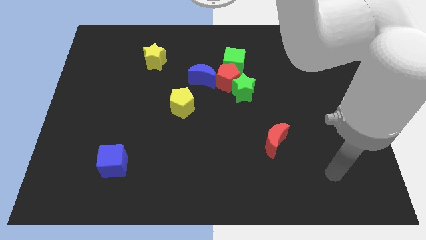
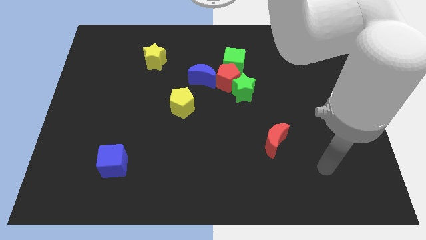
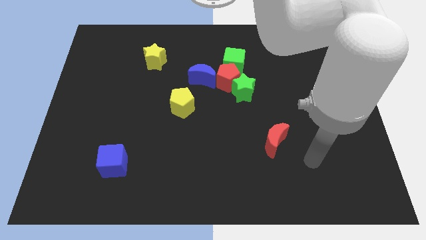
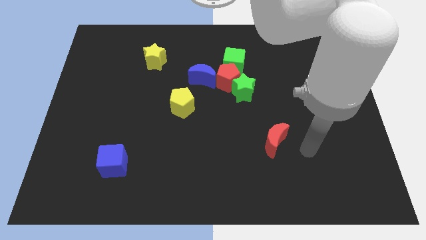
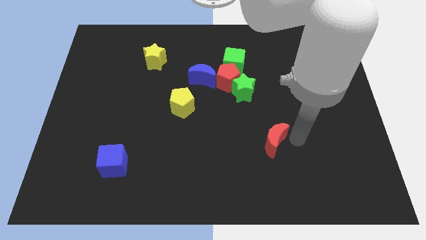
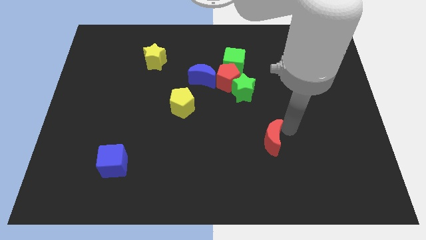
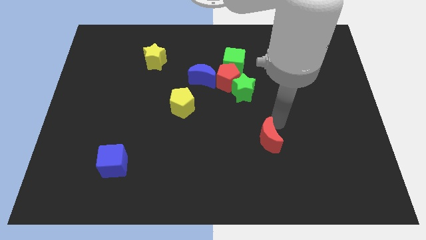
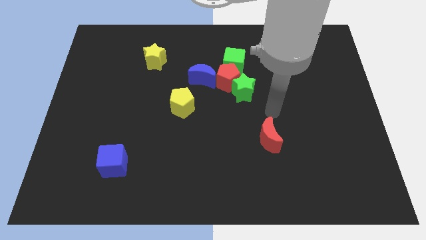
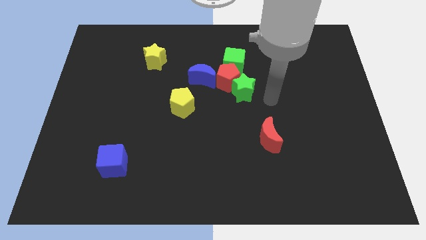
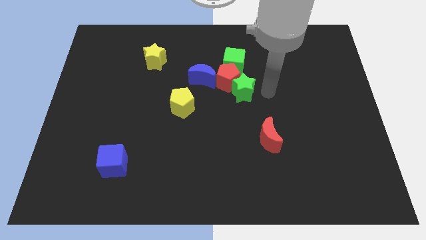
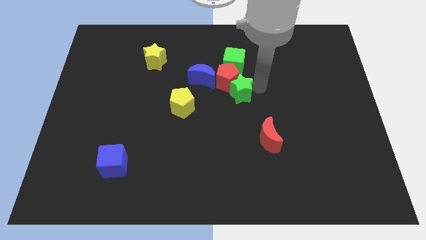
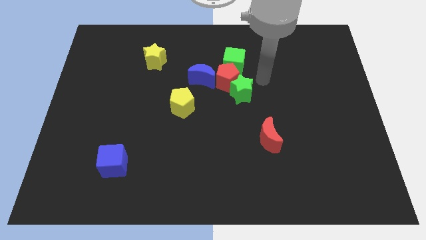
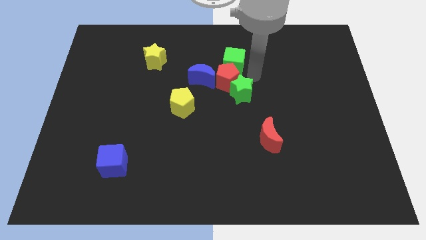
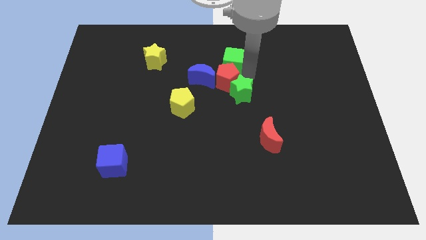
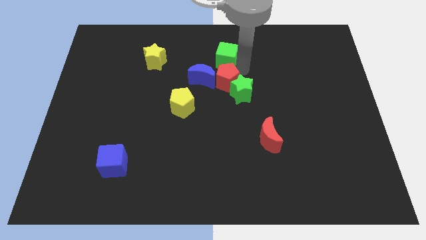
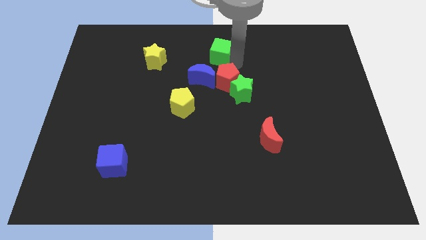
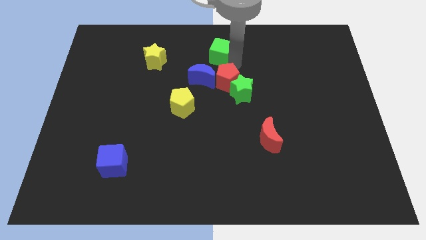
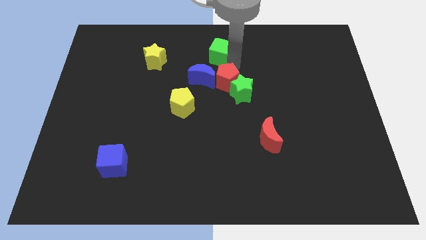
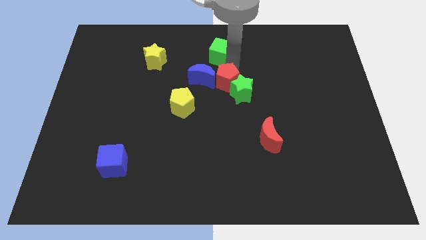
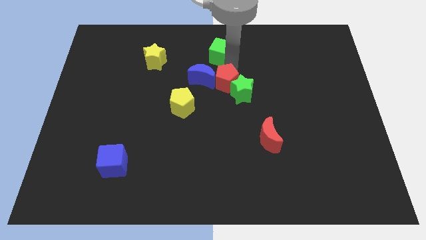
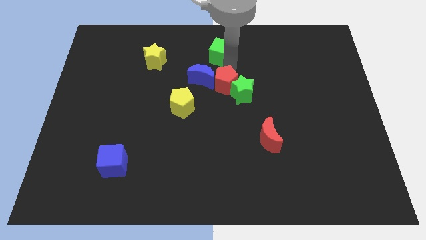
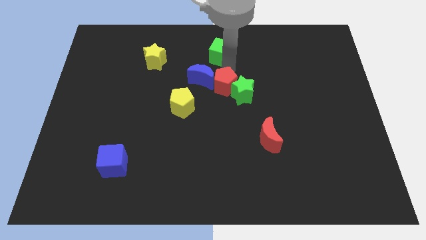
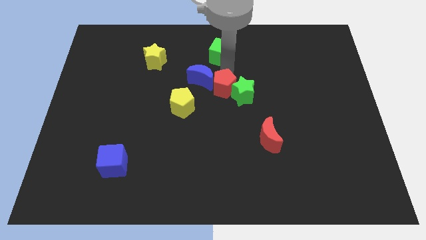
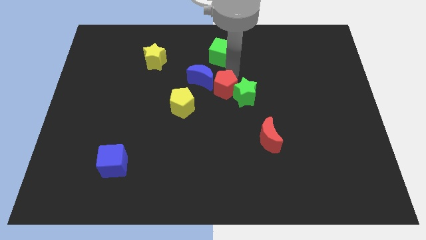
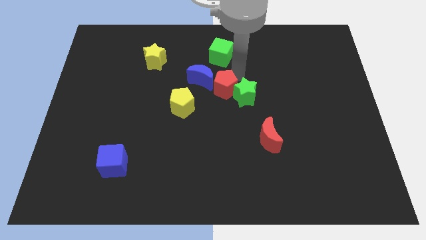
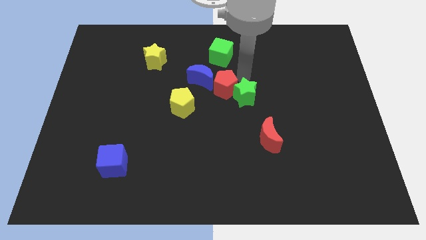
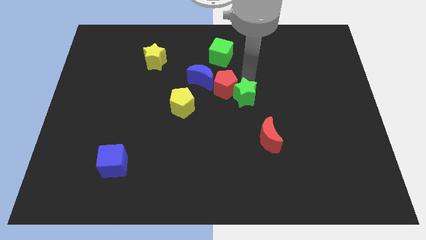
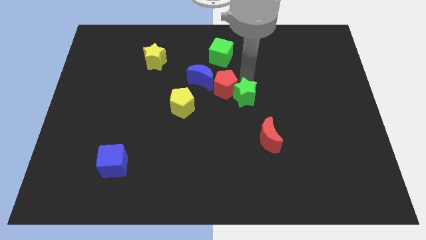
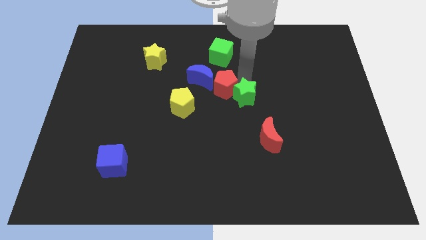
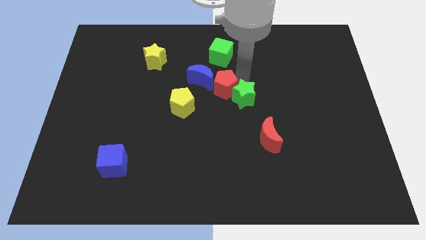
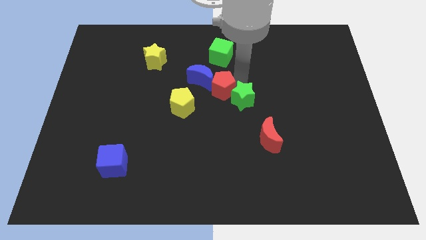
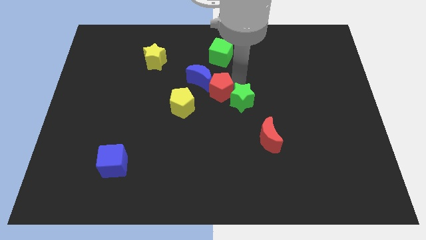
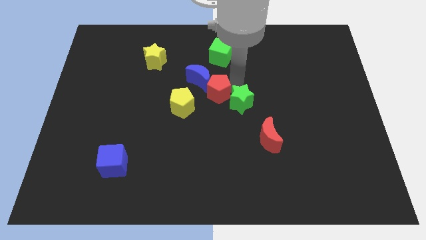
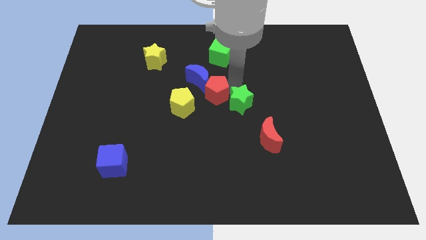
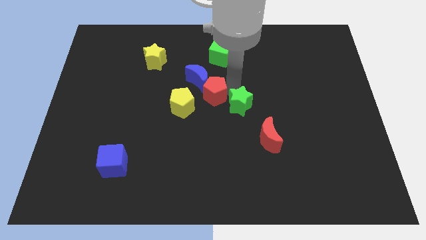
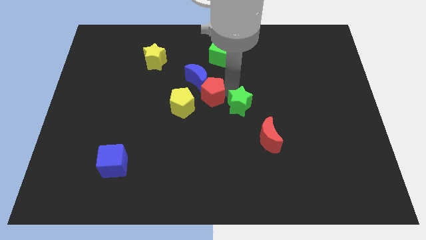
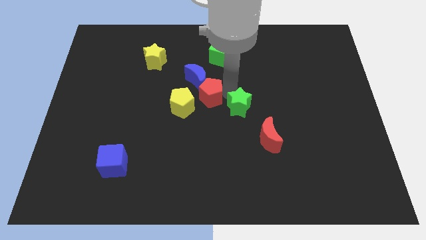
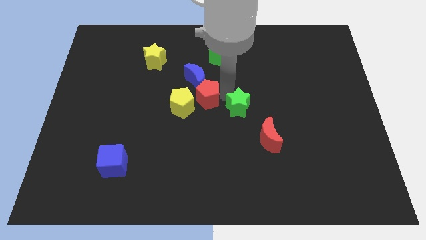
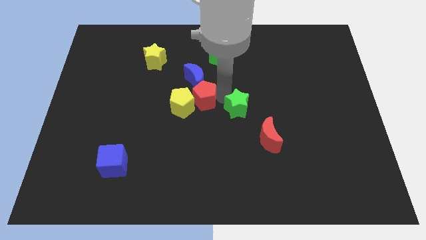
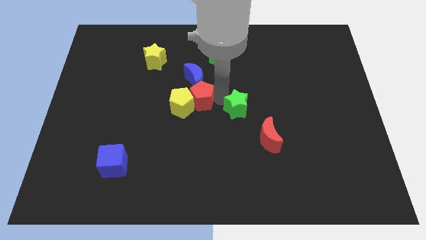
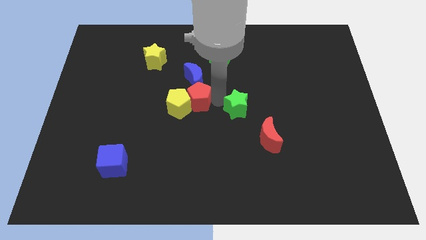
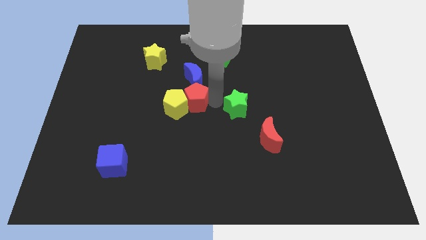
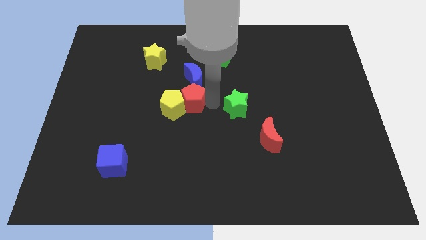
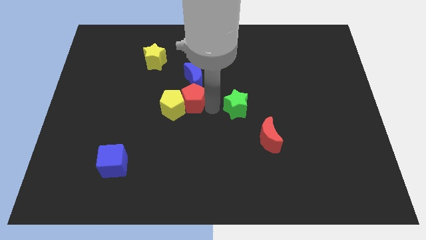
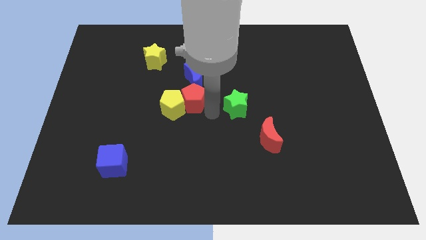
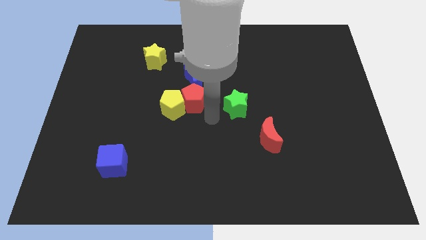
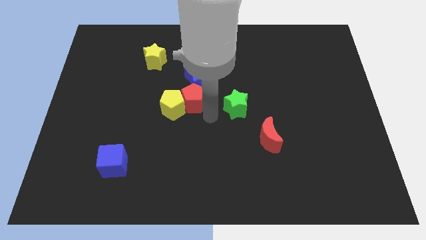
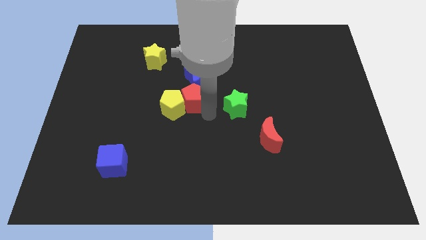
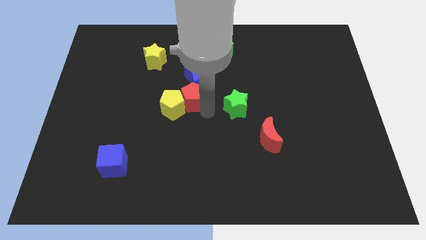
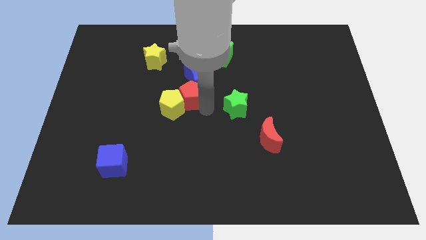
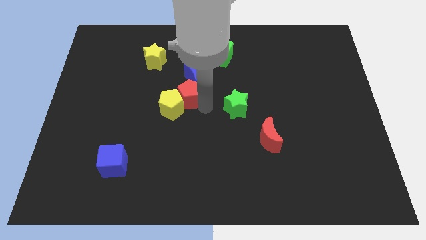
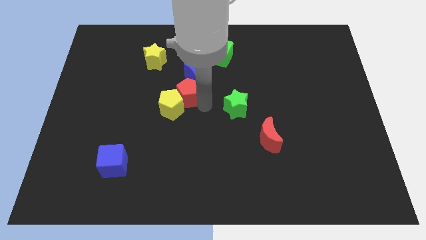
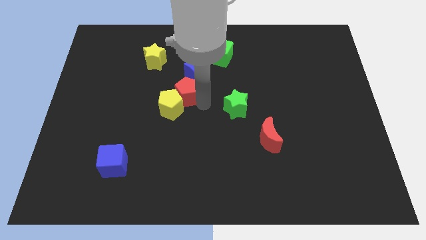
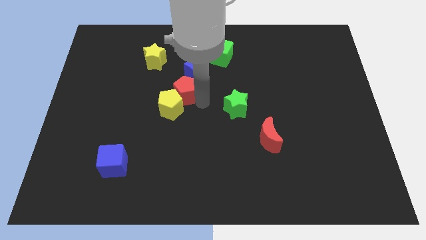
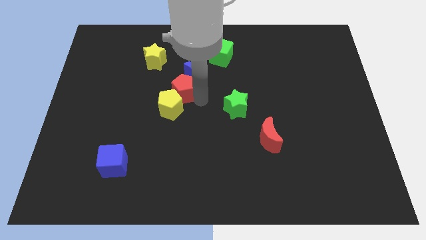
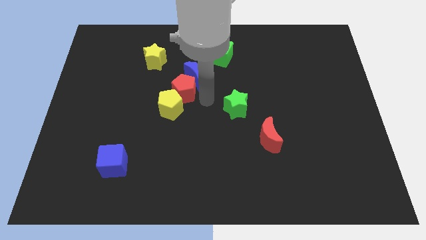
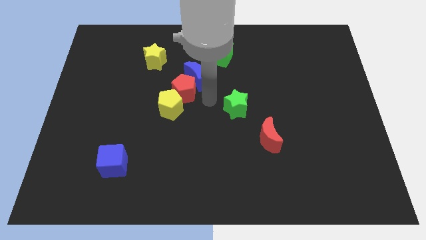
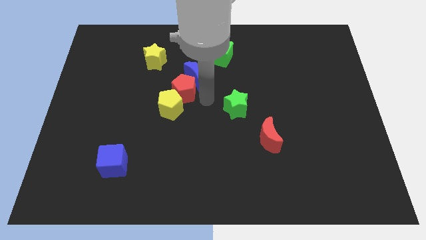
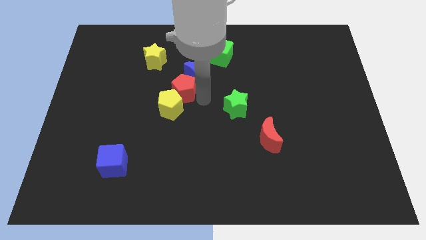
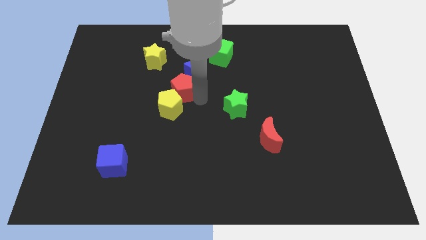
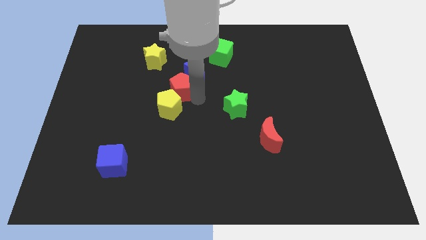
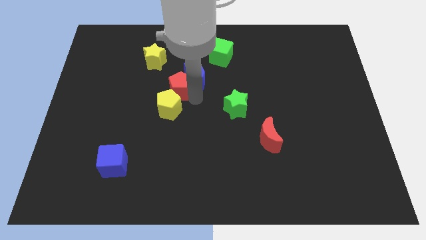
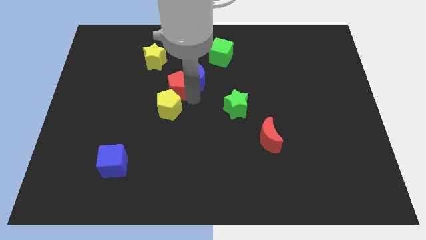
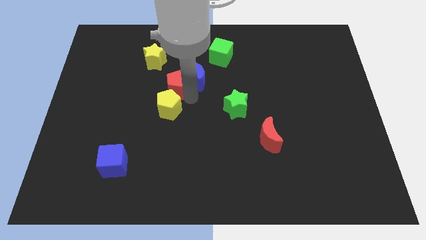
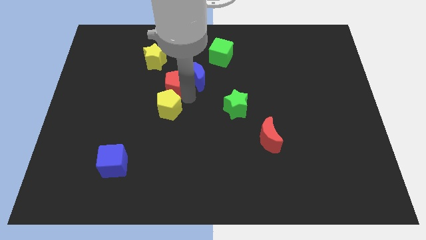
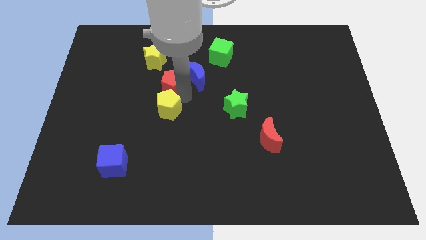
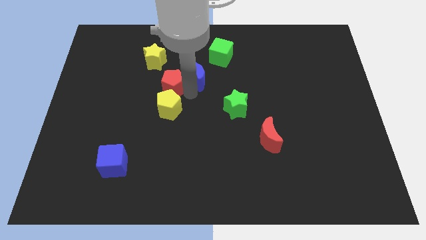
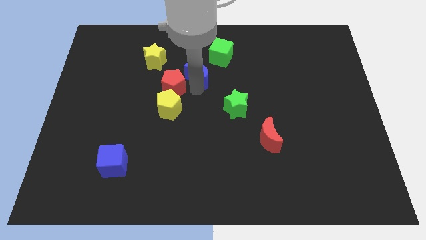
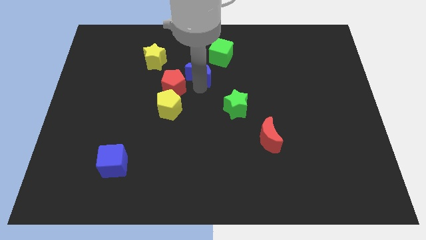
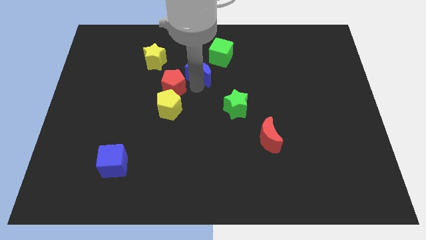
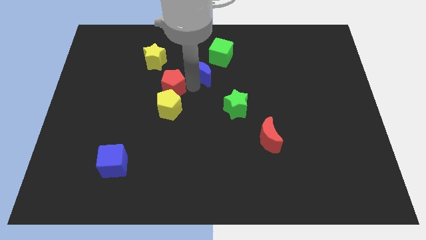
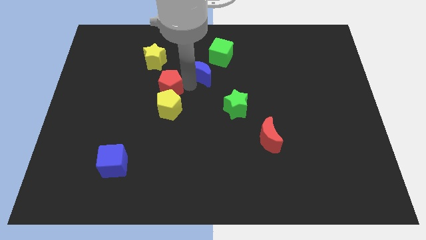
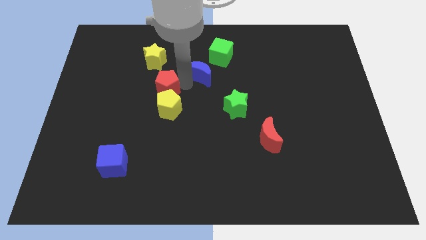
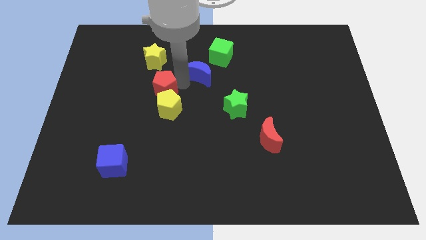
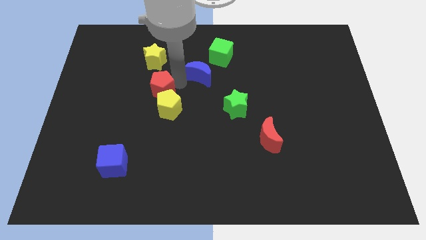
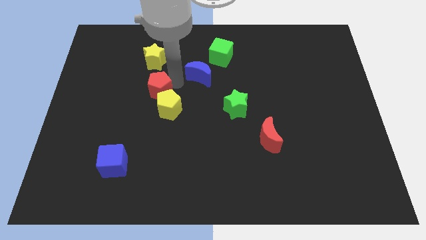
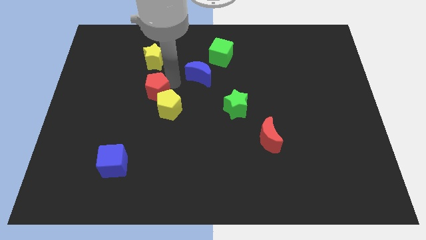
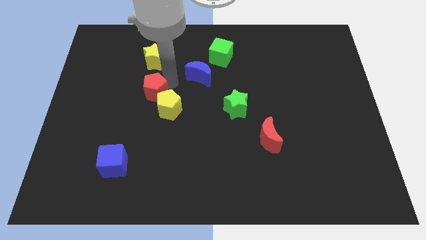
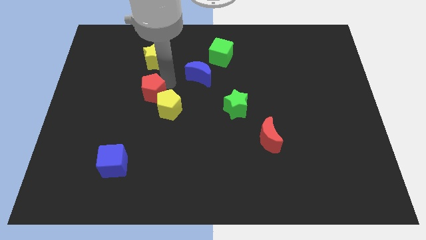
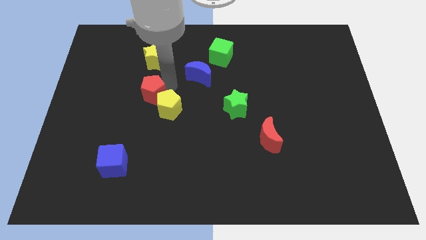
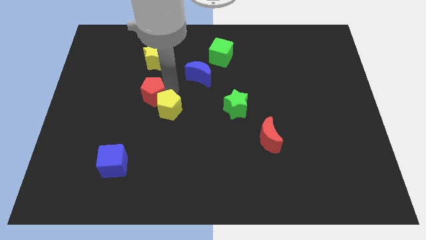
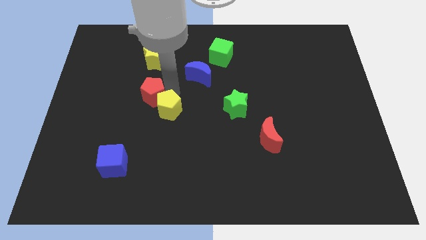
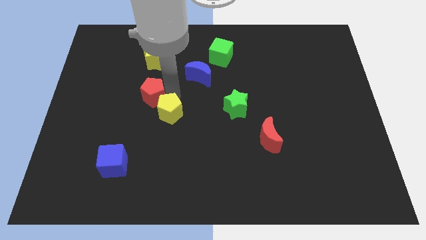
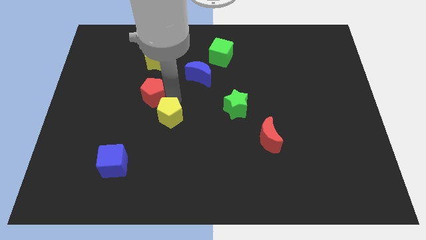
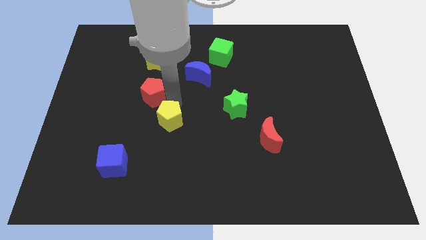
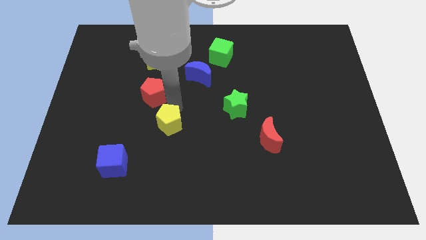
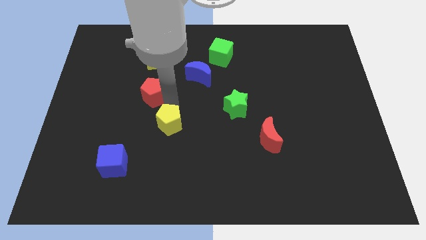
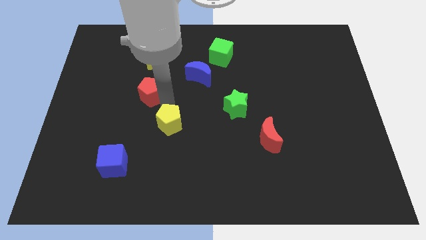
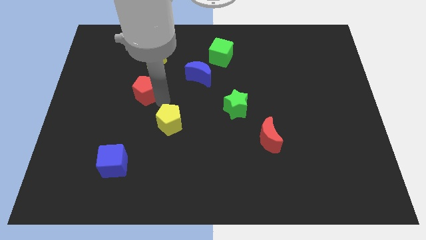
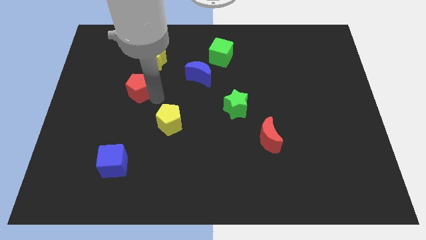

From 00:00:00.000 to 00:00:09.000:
push the red pentagon left
